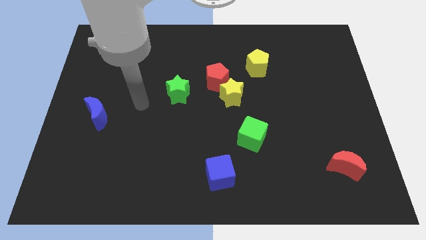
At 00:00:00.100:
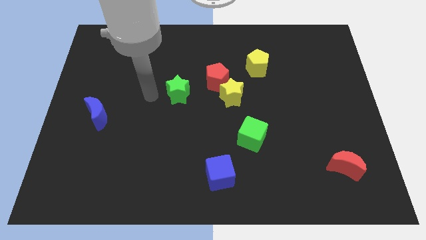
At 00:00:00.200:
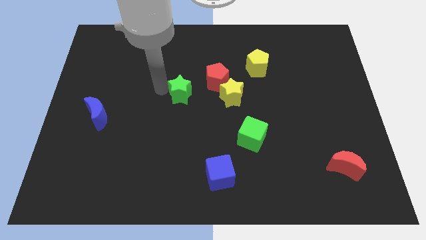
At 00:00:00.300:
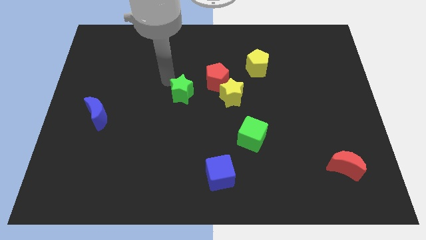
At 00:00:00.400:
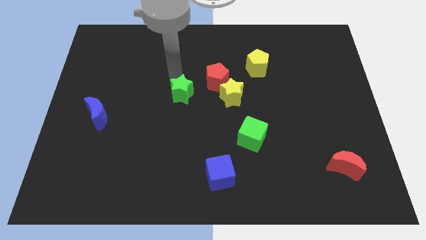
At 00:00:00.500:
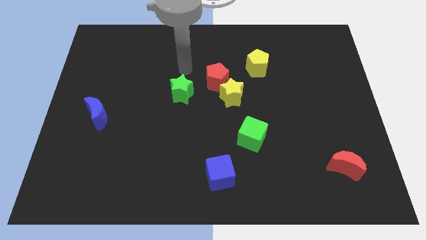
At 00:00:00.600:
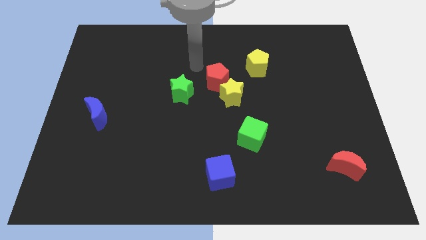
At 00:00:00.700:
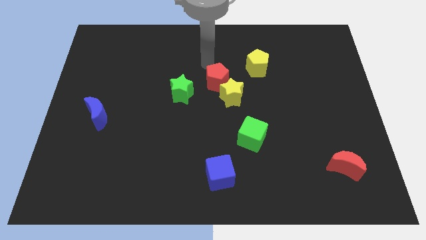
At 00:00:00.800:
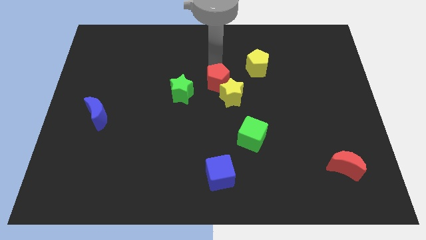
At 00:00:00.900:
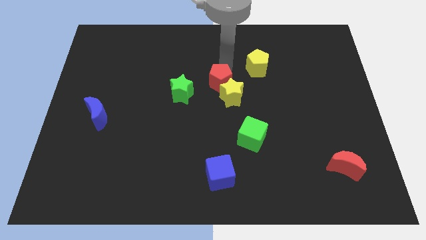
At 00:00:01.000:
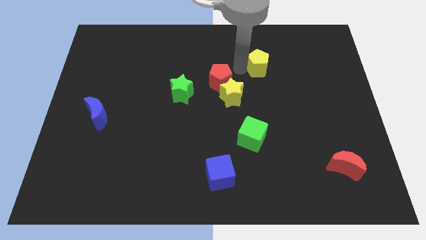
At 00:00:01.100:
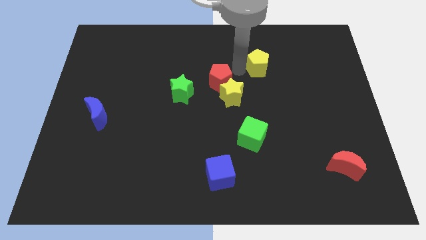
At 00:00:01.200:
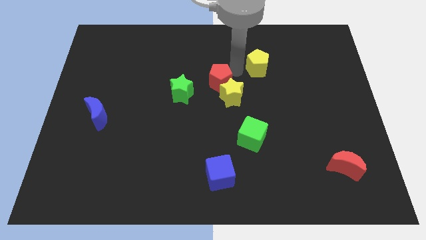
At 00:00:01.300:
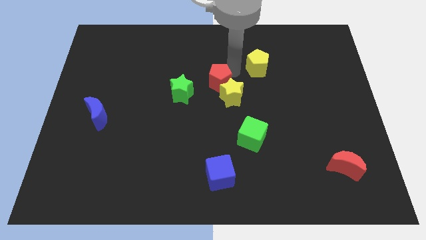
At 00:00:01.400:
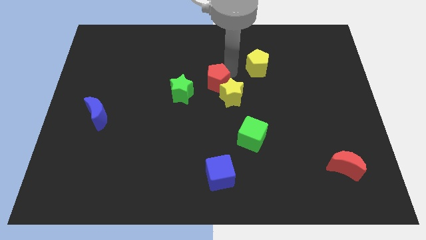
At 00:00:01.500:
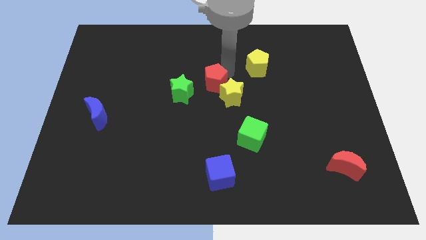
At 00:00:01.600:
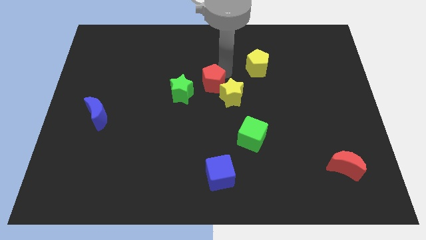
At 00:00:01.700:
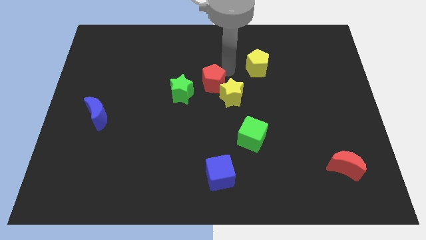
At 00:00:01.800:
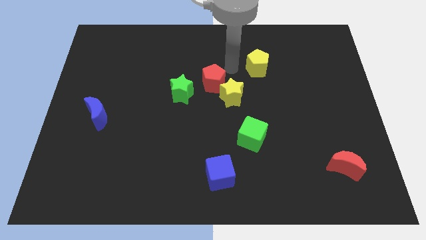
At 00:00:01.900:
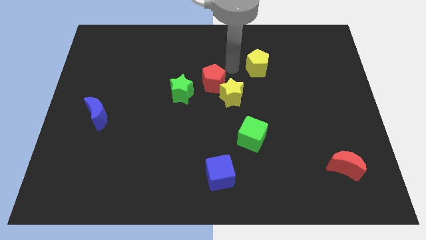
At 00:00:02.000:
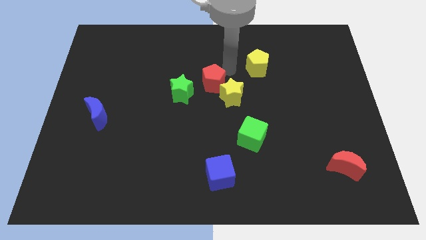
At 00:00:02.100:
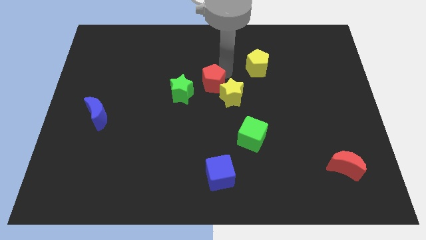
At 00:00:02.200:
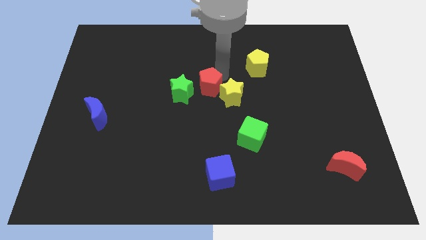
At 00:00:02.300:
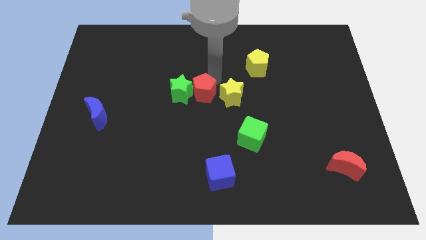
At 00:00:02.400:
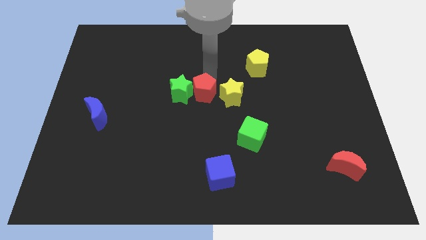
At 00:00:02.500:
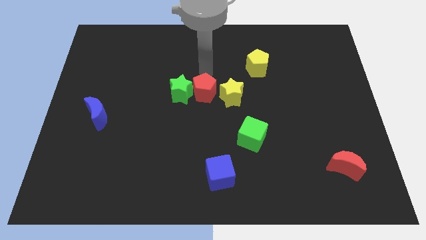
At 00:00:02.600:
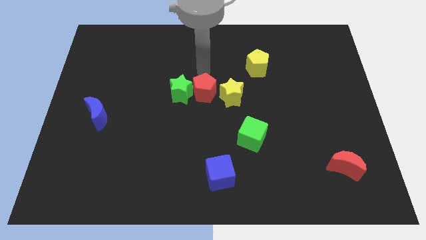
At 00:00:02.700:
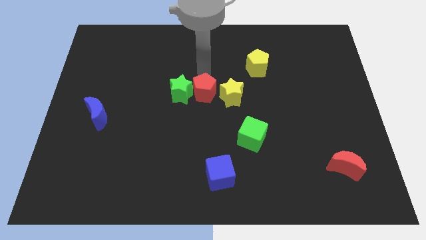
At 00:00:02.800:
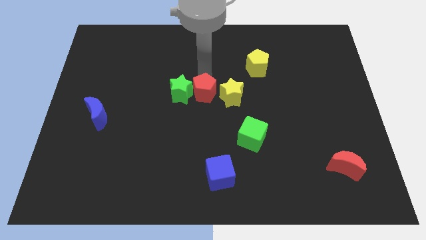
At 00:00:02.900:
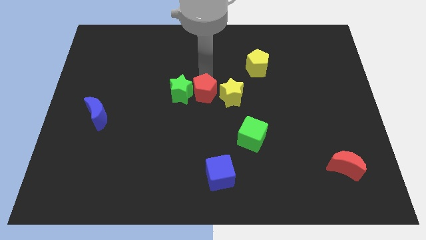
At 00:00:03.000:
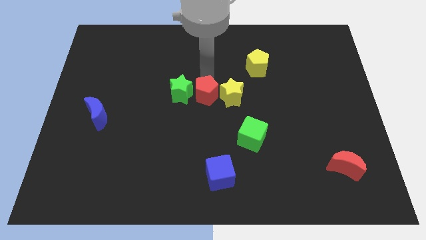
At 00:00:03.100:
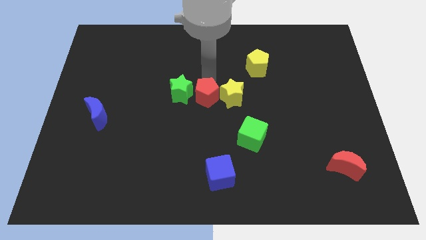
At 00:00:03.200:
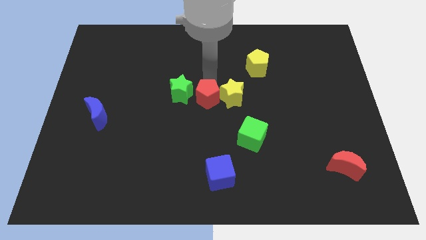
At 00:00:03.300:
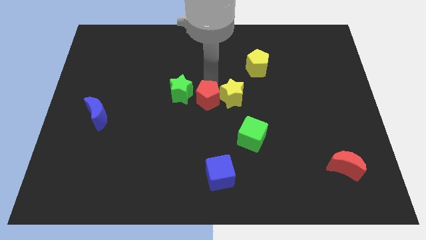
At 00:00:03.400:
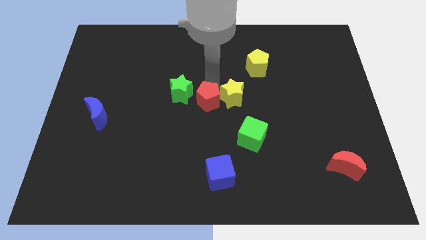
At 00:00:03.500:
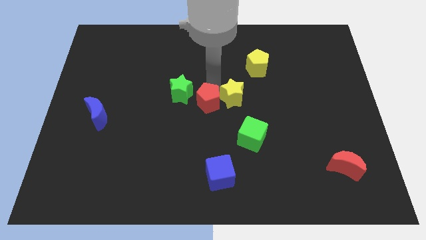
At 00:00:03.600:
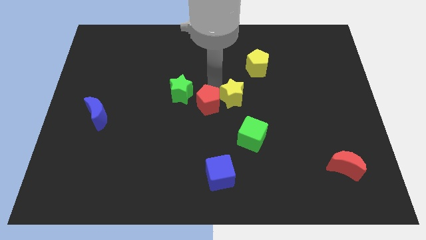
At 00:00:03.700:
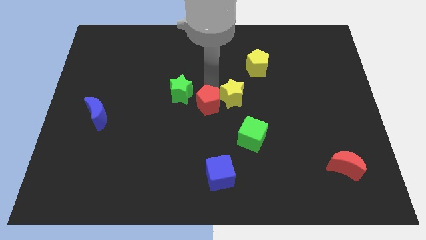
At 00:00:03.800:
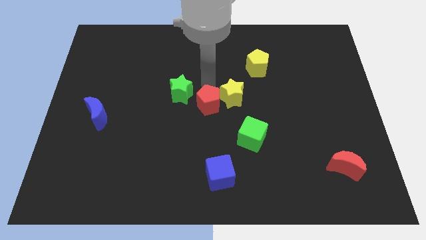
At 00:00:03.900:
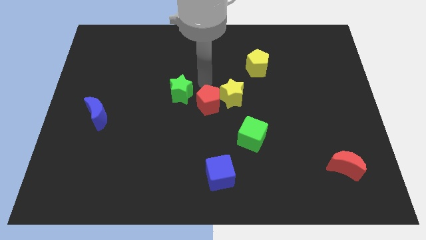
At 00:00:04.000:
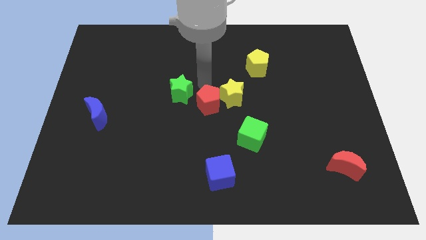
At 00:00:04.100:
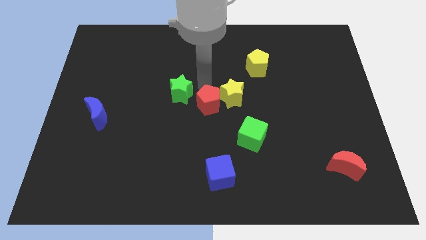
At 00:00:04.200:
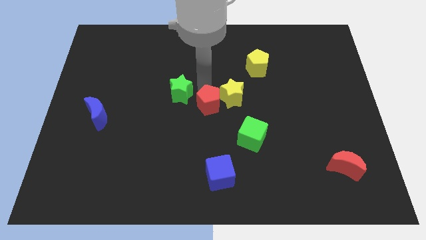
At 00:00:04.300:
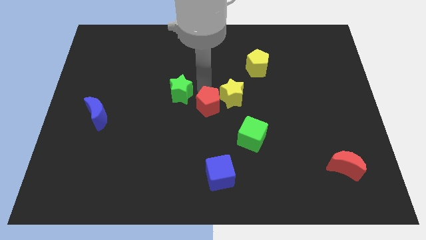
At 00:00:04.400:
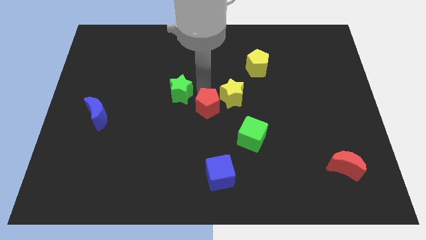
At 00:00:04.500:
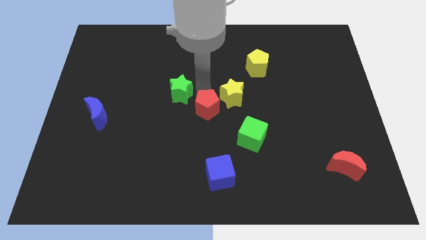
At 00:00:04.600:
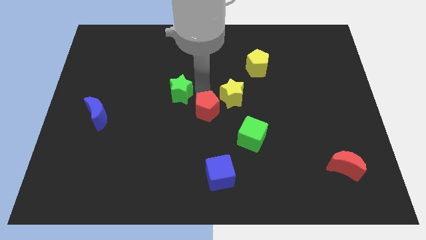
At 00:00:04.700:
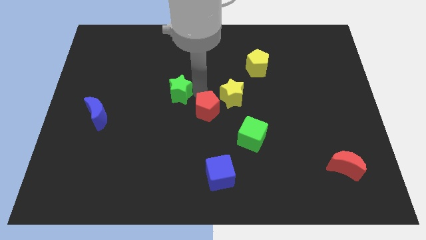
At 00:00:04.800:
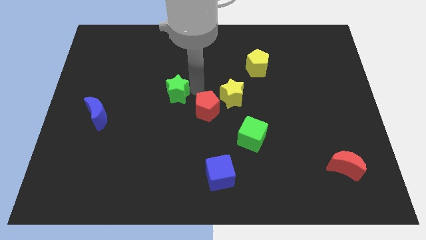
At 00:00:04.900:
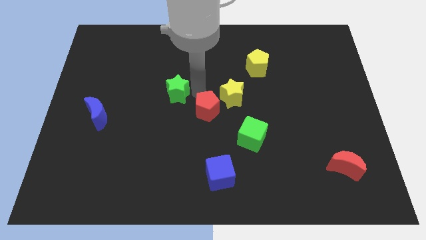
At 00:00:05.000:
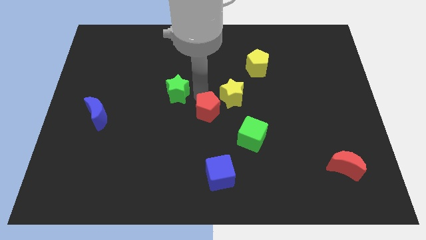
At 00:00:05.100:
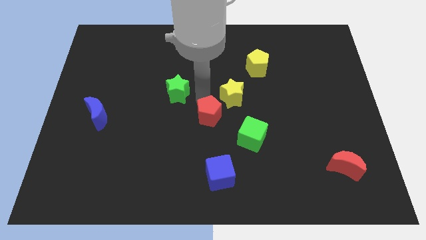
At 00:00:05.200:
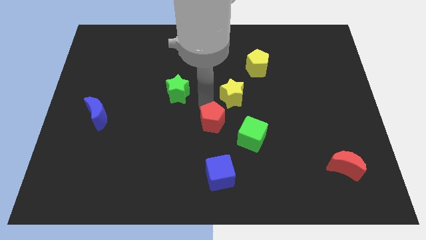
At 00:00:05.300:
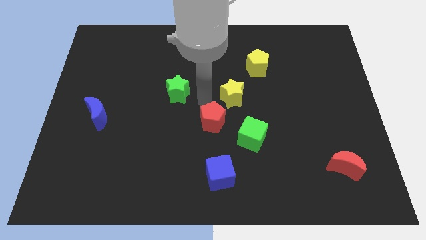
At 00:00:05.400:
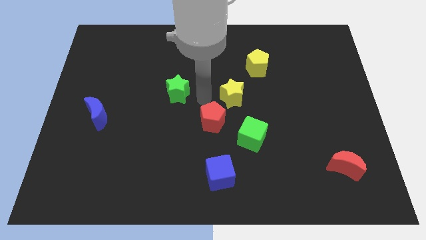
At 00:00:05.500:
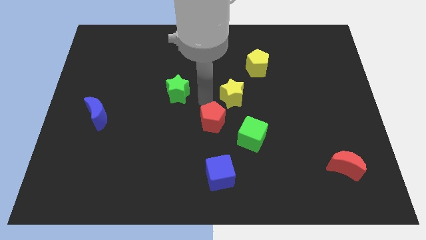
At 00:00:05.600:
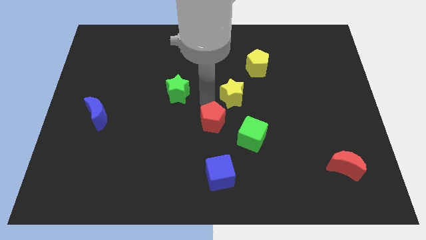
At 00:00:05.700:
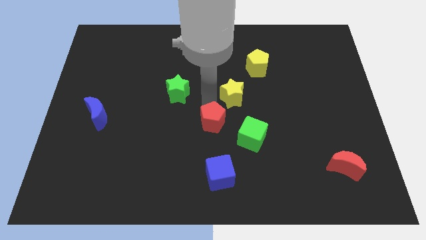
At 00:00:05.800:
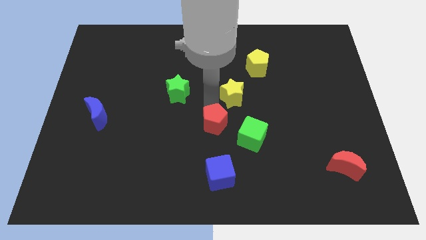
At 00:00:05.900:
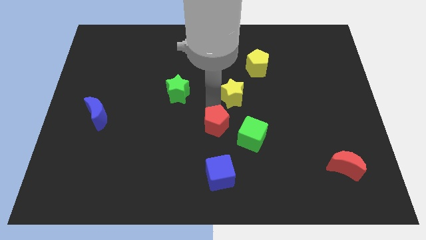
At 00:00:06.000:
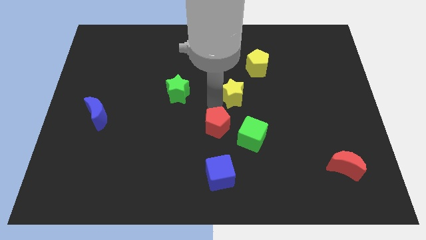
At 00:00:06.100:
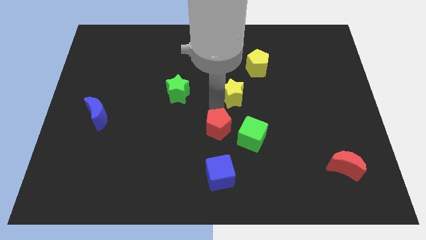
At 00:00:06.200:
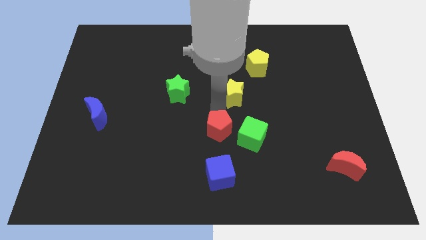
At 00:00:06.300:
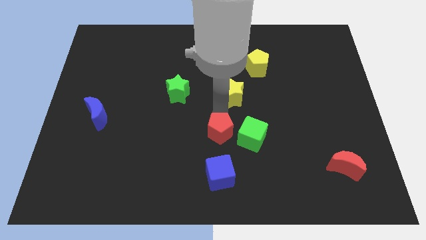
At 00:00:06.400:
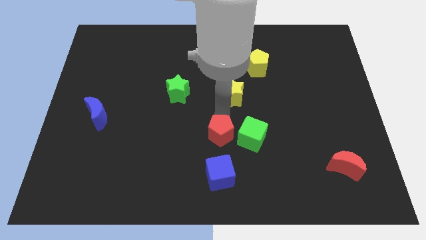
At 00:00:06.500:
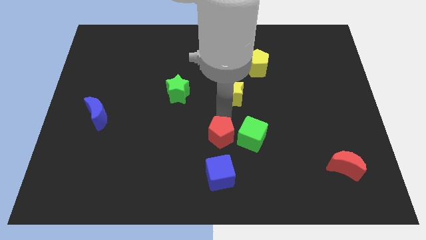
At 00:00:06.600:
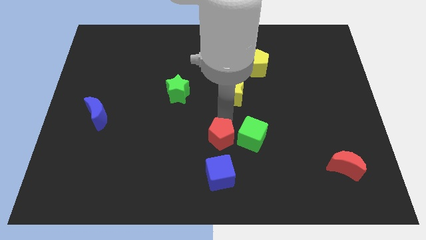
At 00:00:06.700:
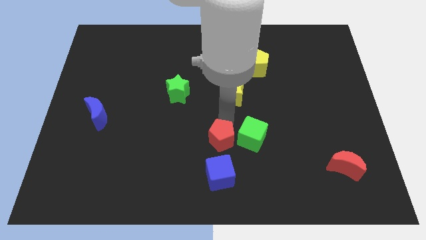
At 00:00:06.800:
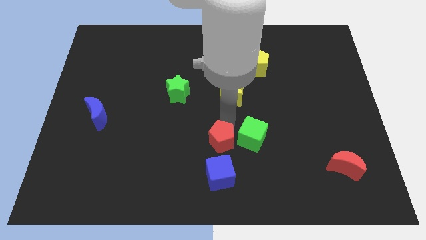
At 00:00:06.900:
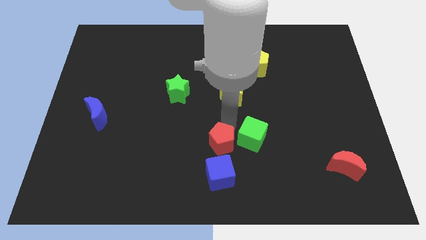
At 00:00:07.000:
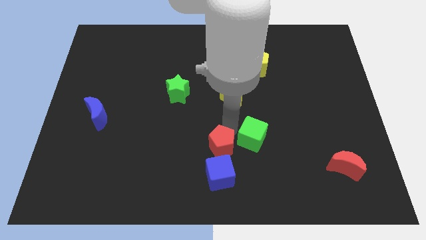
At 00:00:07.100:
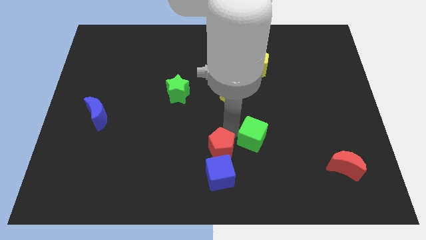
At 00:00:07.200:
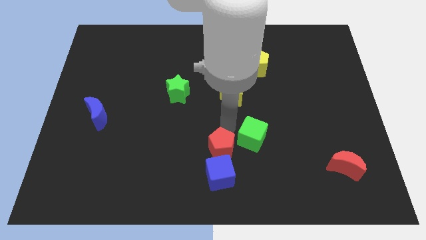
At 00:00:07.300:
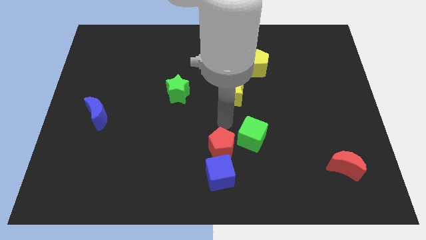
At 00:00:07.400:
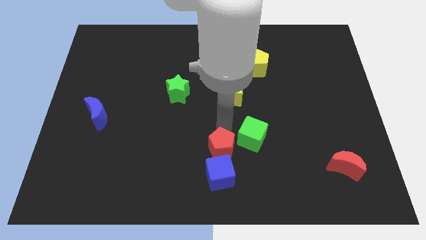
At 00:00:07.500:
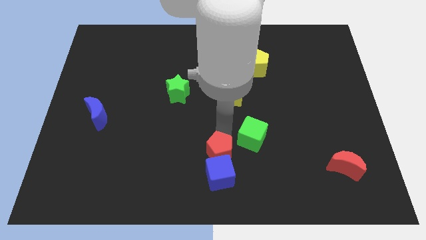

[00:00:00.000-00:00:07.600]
slide the red pentagon next to the blue cube
